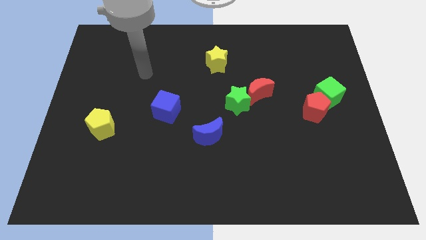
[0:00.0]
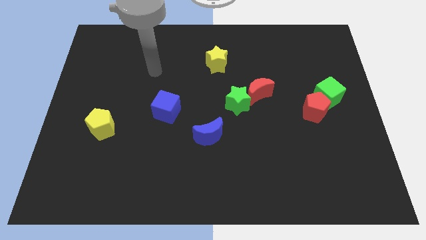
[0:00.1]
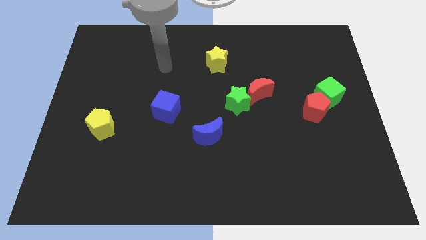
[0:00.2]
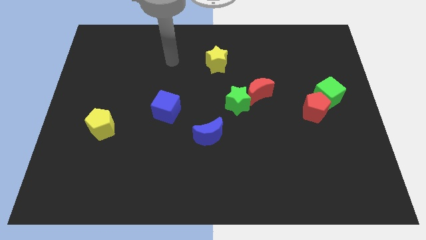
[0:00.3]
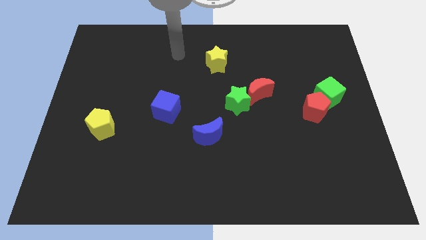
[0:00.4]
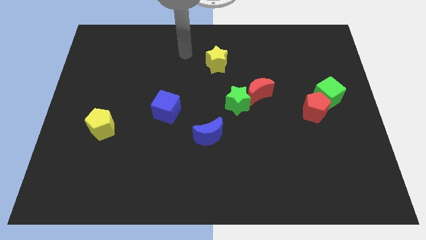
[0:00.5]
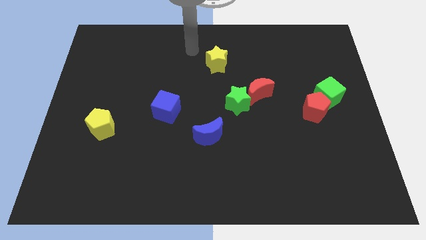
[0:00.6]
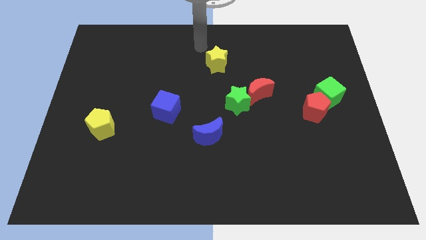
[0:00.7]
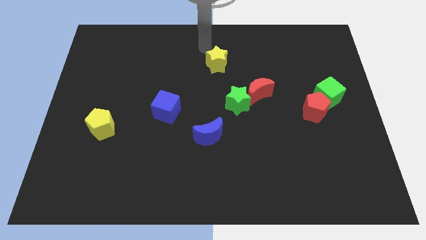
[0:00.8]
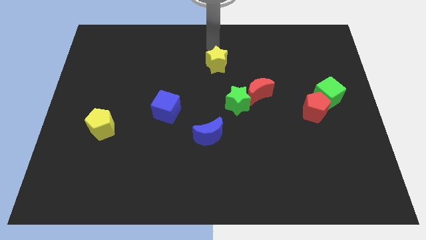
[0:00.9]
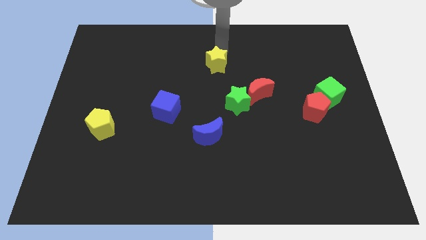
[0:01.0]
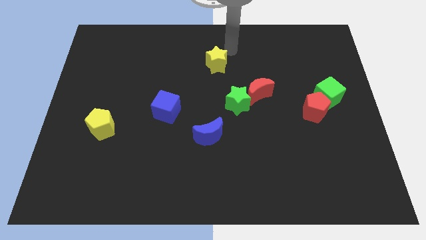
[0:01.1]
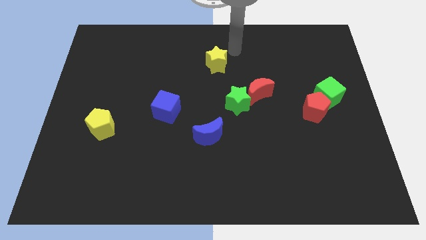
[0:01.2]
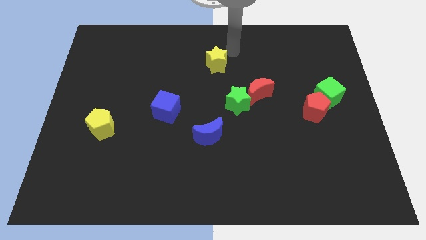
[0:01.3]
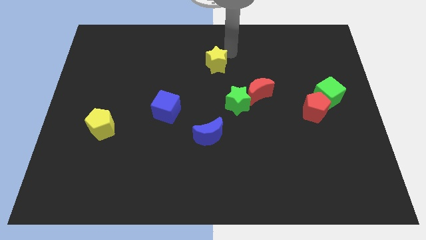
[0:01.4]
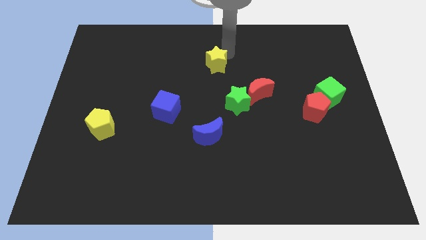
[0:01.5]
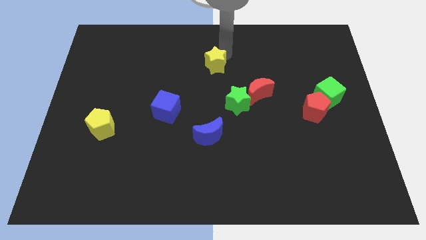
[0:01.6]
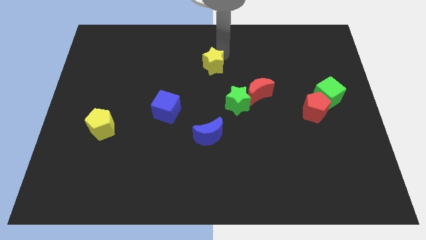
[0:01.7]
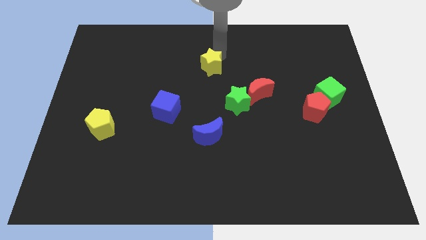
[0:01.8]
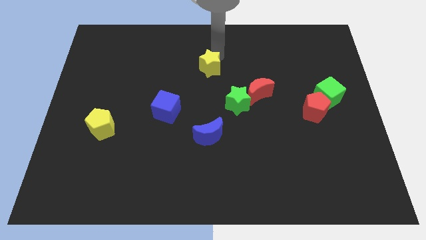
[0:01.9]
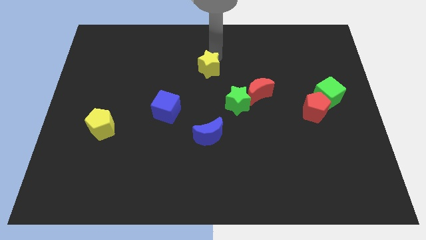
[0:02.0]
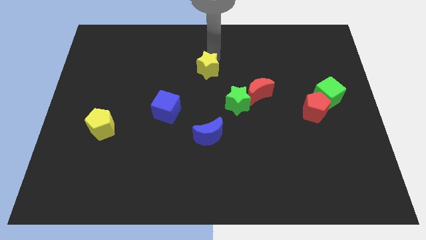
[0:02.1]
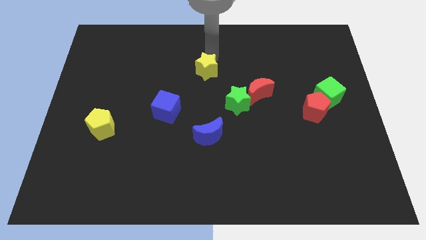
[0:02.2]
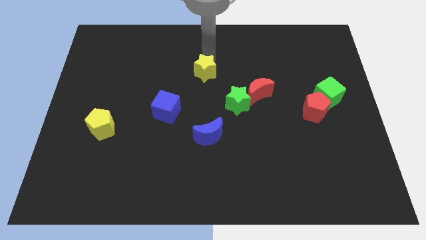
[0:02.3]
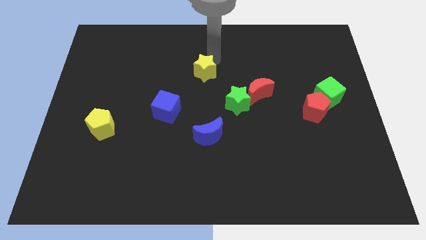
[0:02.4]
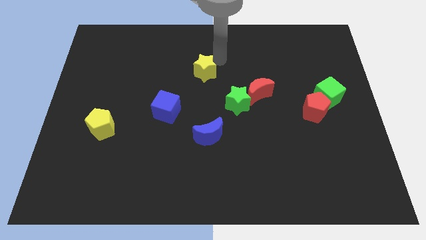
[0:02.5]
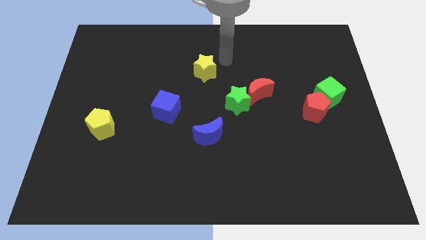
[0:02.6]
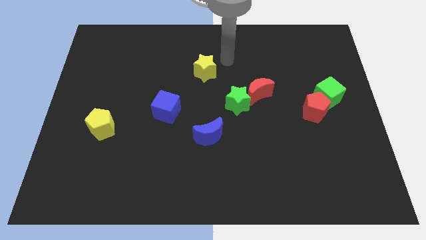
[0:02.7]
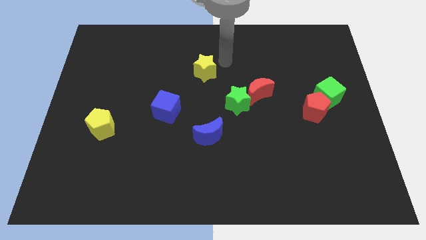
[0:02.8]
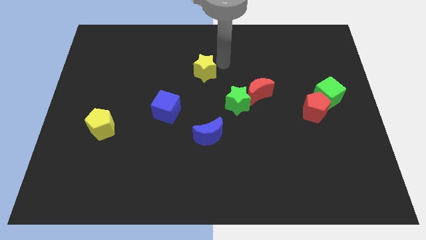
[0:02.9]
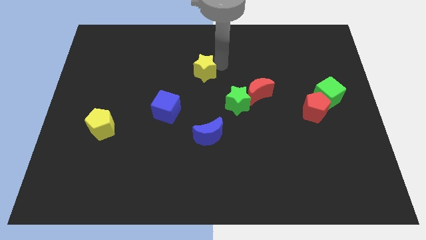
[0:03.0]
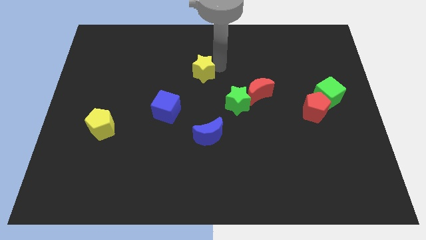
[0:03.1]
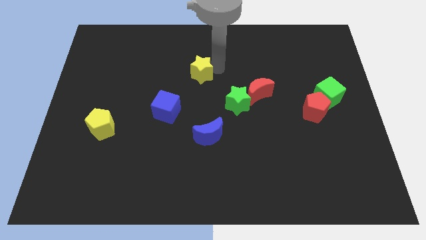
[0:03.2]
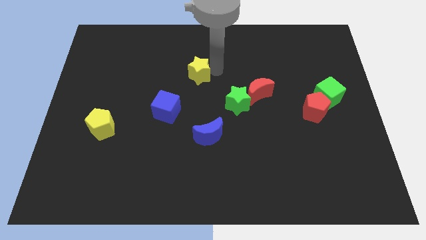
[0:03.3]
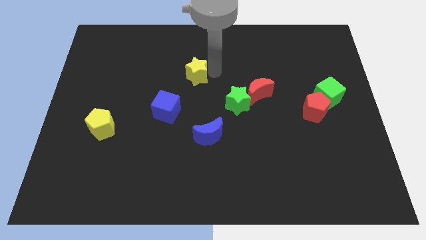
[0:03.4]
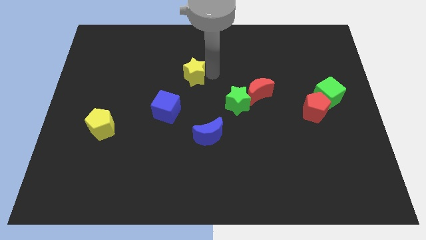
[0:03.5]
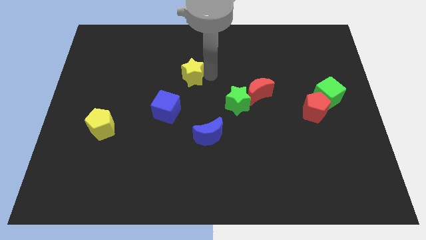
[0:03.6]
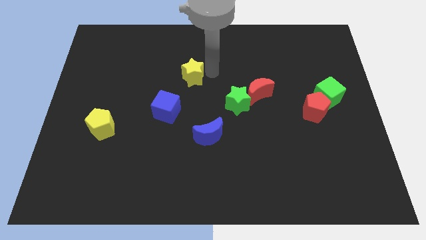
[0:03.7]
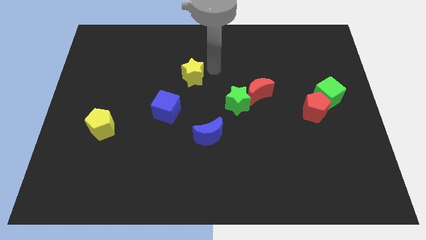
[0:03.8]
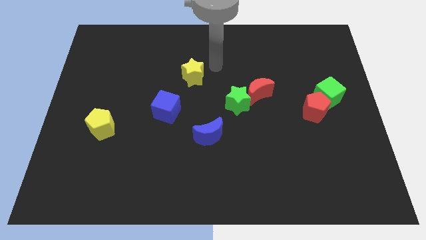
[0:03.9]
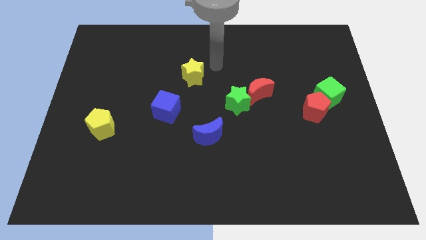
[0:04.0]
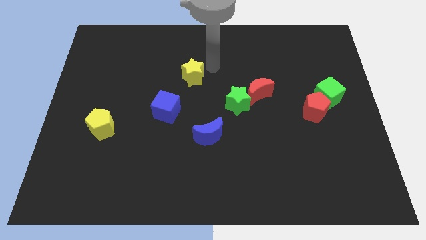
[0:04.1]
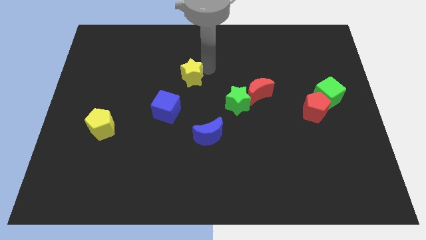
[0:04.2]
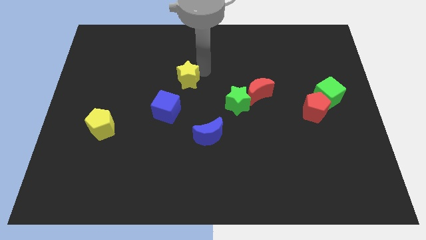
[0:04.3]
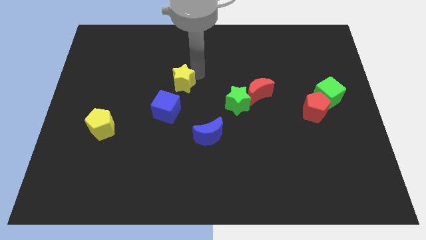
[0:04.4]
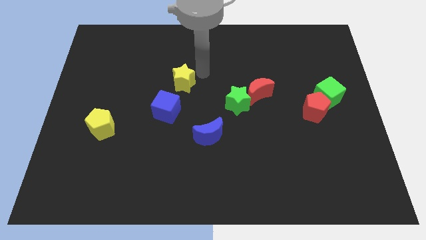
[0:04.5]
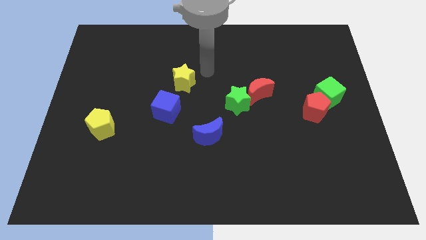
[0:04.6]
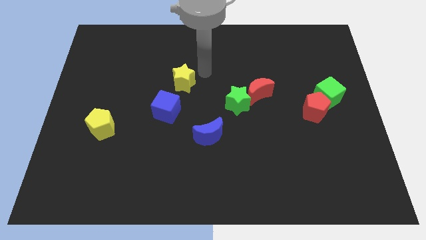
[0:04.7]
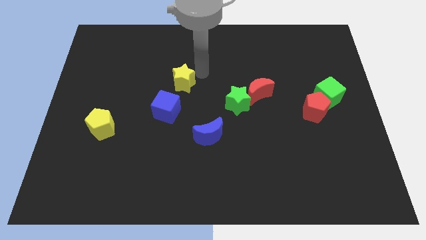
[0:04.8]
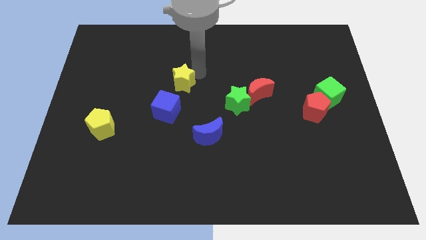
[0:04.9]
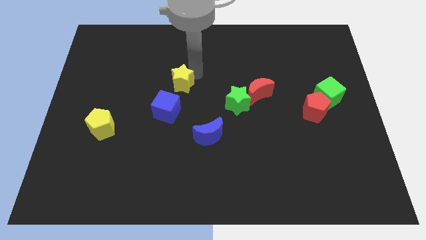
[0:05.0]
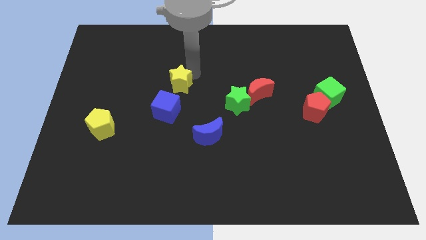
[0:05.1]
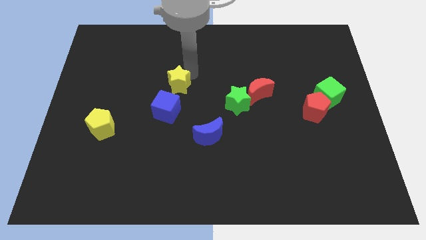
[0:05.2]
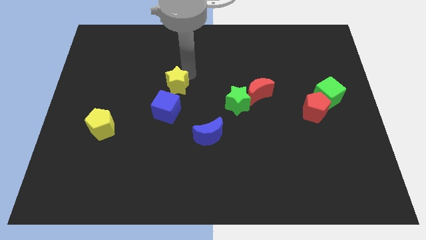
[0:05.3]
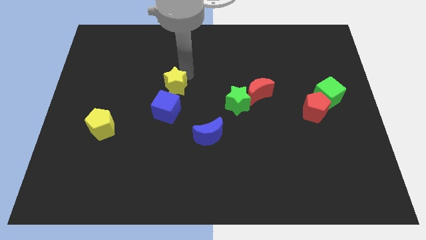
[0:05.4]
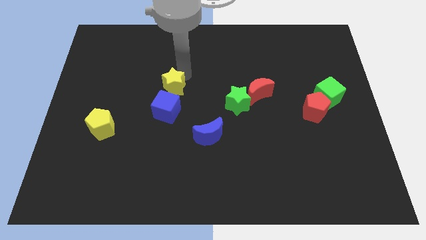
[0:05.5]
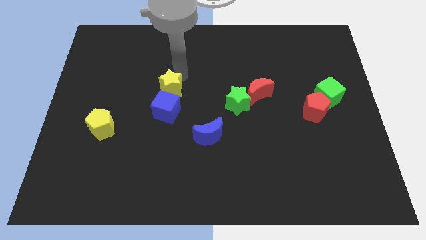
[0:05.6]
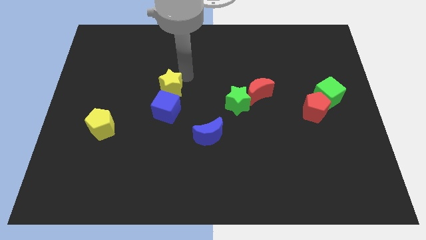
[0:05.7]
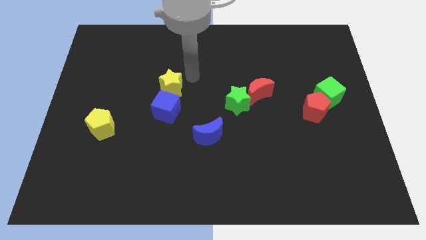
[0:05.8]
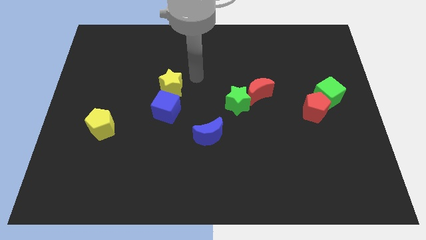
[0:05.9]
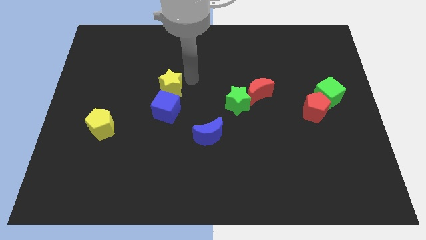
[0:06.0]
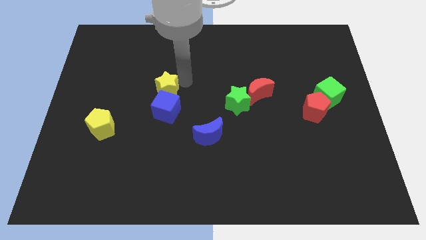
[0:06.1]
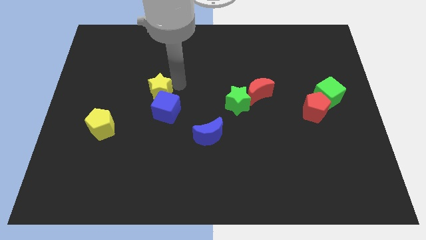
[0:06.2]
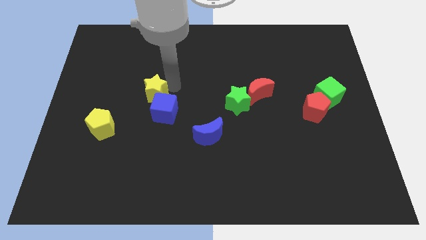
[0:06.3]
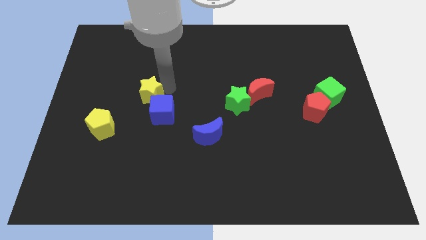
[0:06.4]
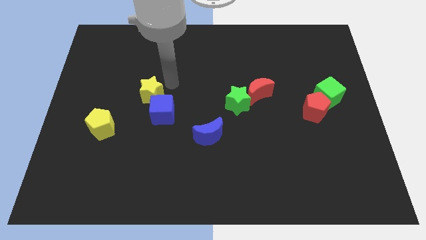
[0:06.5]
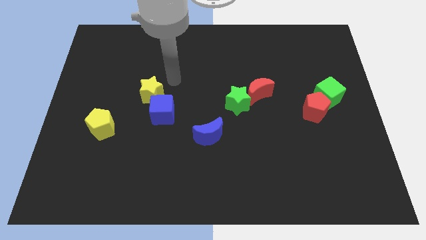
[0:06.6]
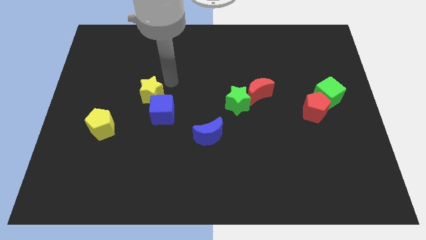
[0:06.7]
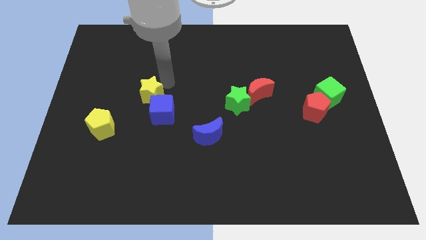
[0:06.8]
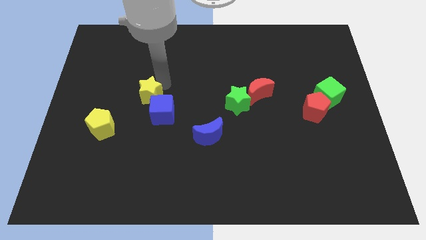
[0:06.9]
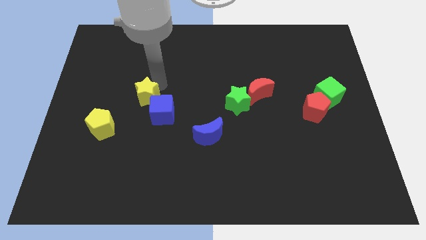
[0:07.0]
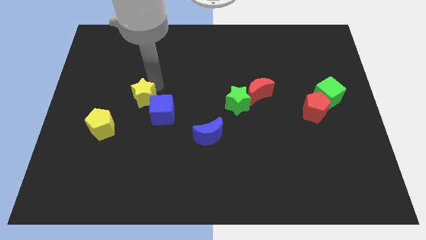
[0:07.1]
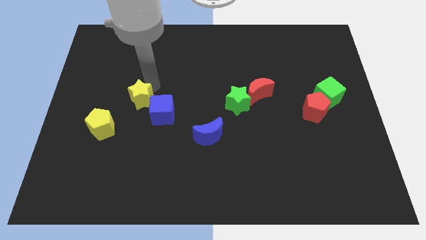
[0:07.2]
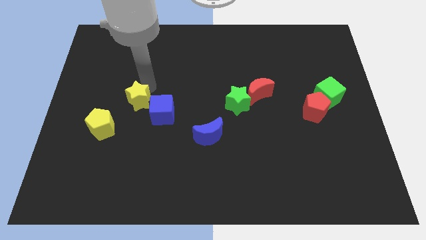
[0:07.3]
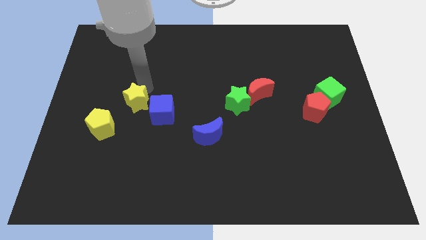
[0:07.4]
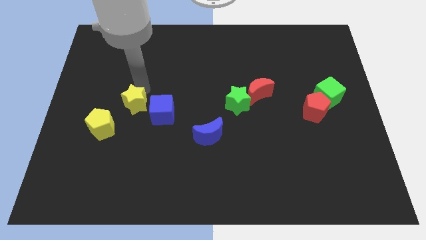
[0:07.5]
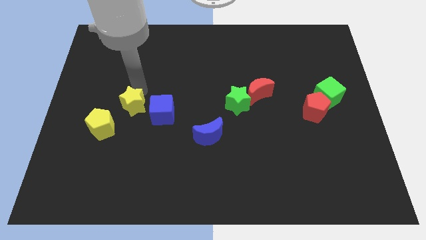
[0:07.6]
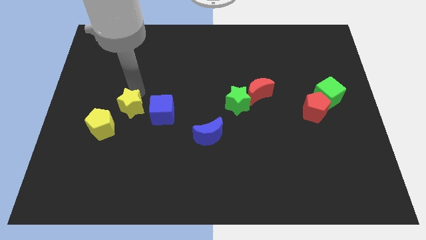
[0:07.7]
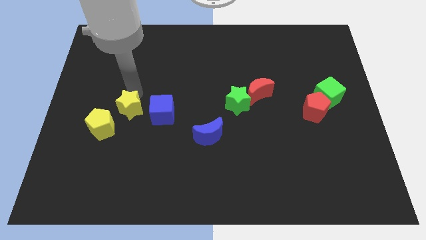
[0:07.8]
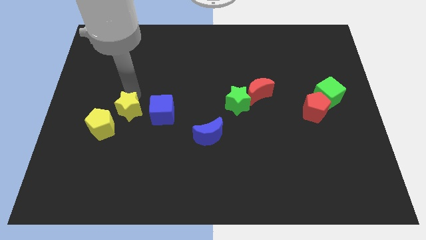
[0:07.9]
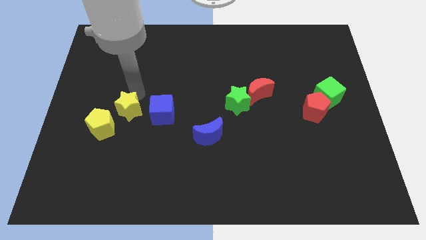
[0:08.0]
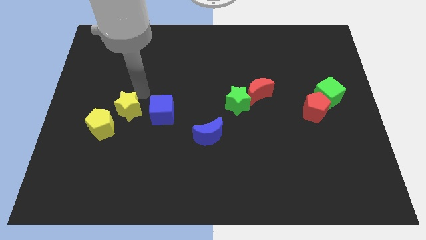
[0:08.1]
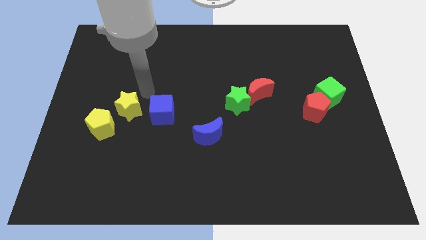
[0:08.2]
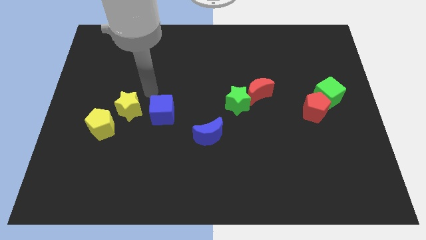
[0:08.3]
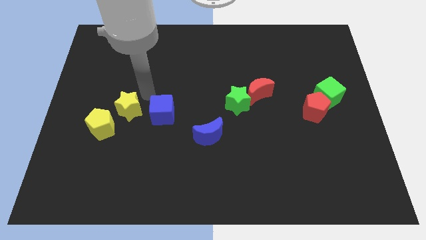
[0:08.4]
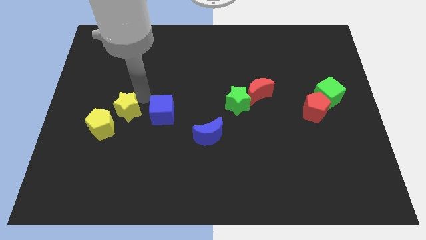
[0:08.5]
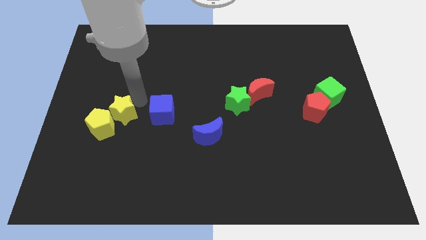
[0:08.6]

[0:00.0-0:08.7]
move the yellow star next to the yellow pentagon
